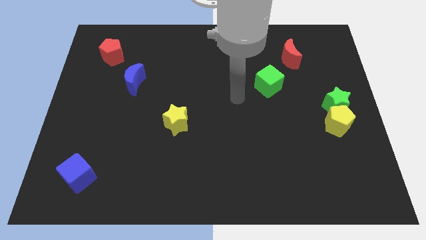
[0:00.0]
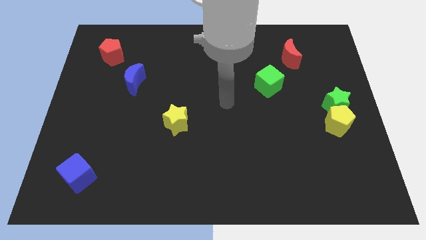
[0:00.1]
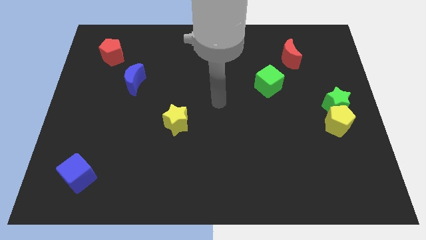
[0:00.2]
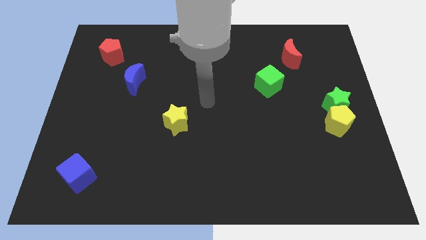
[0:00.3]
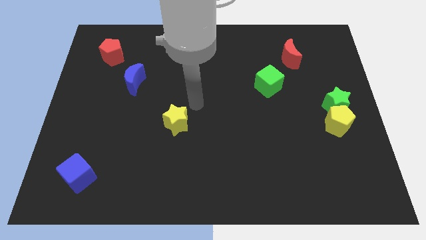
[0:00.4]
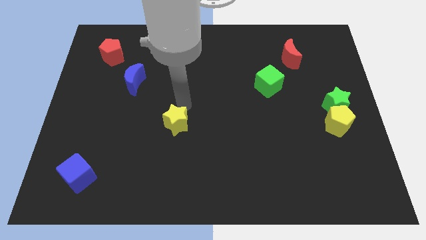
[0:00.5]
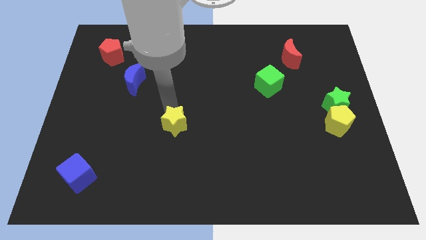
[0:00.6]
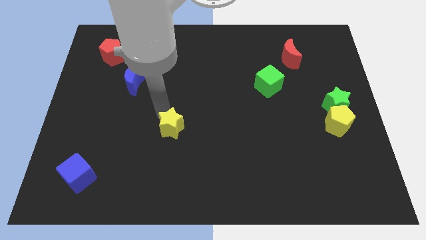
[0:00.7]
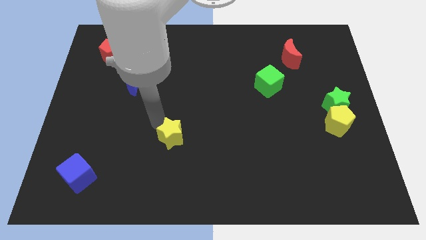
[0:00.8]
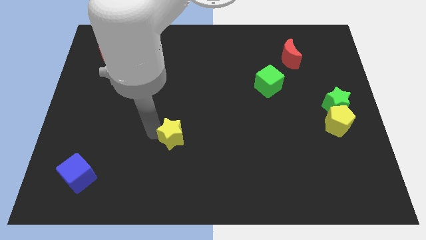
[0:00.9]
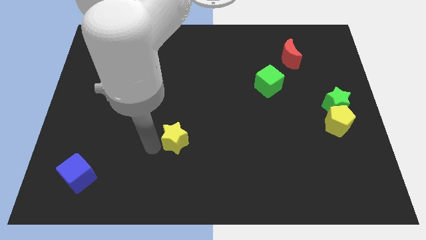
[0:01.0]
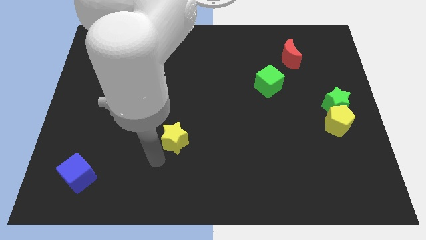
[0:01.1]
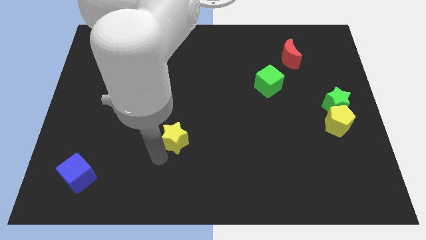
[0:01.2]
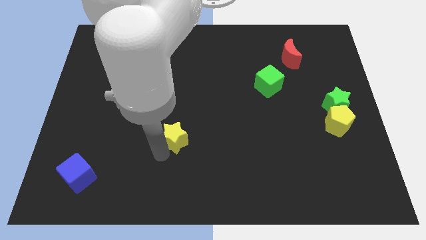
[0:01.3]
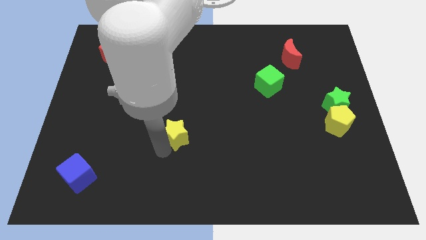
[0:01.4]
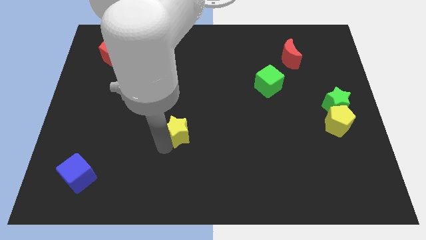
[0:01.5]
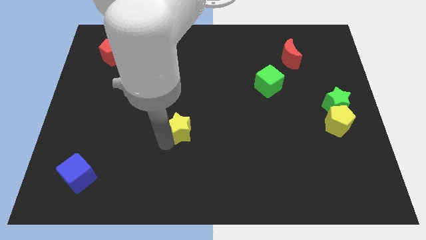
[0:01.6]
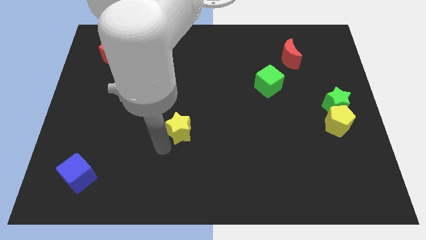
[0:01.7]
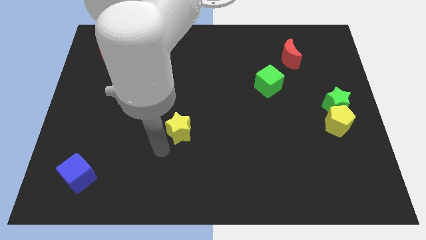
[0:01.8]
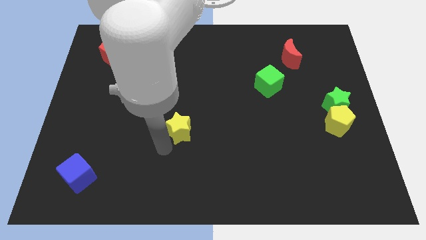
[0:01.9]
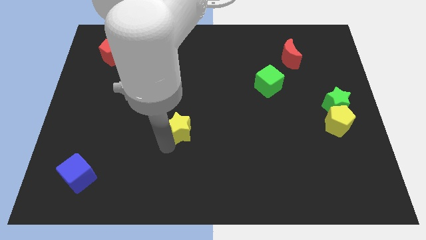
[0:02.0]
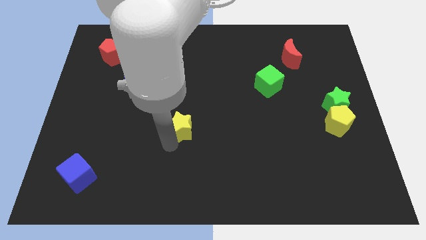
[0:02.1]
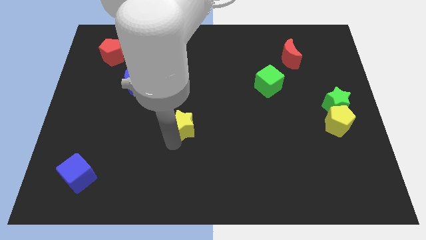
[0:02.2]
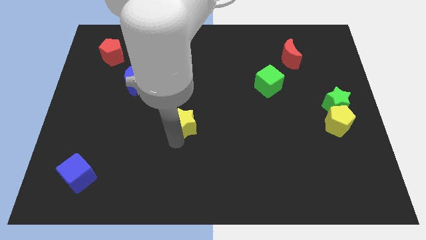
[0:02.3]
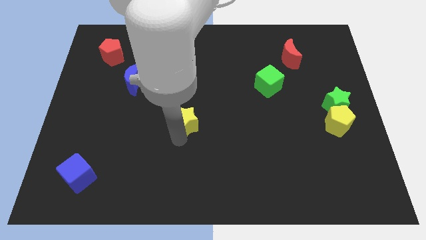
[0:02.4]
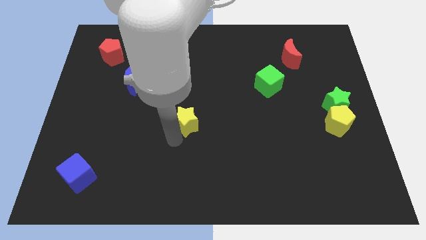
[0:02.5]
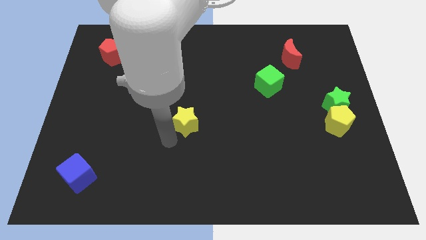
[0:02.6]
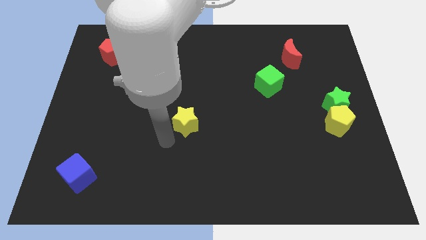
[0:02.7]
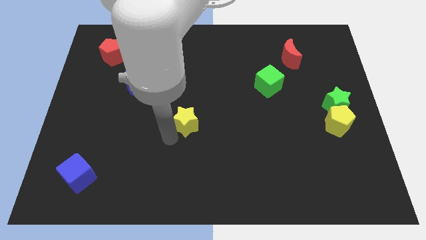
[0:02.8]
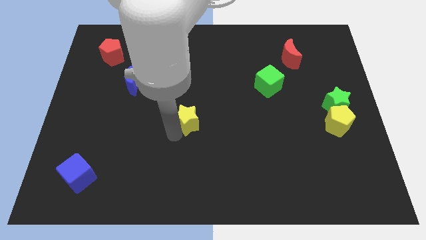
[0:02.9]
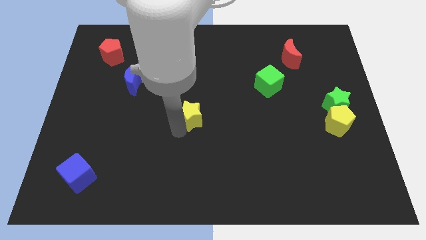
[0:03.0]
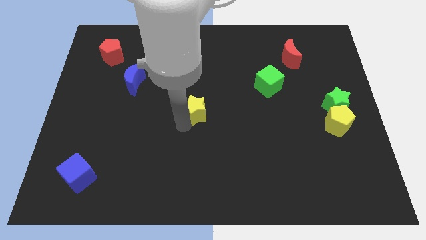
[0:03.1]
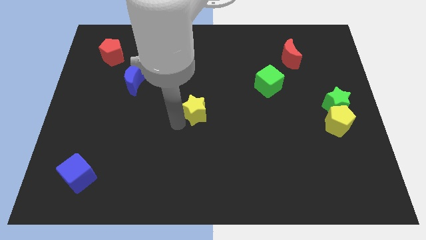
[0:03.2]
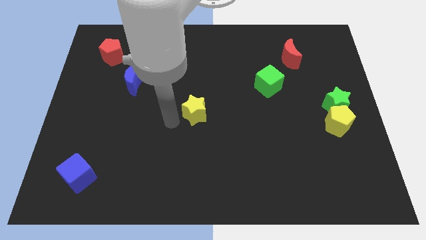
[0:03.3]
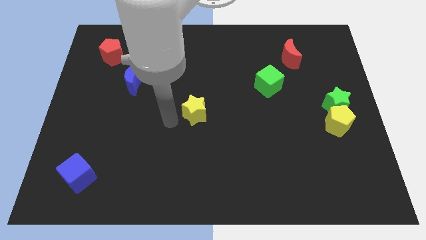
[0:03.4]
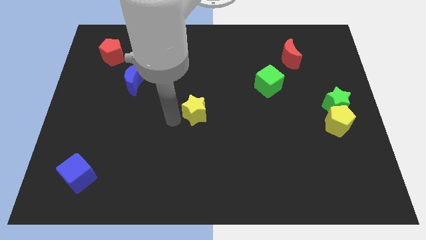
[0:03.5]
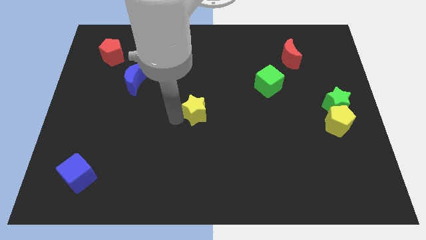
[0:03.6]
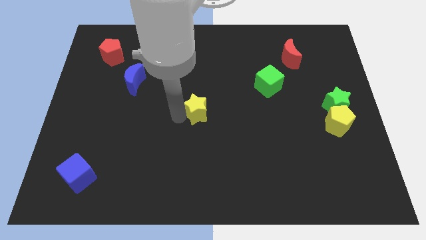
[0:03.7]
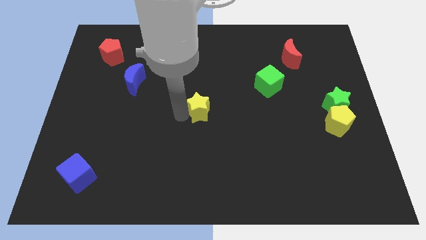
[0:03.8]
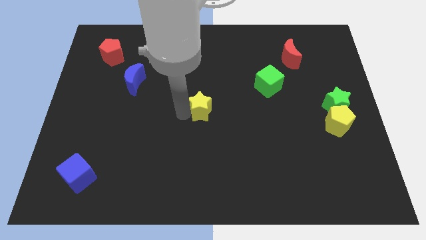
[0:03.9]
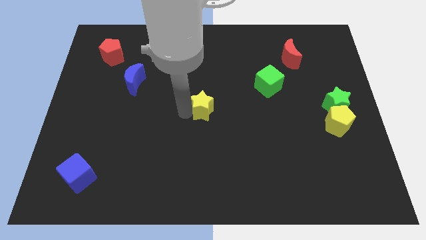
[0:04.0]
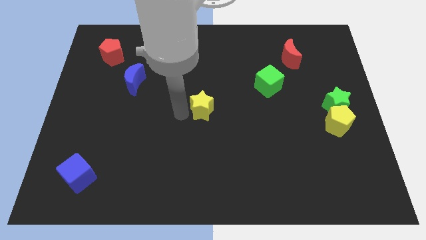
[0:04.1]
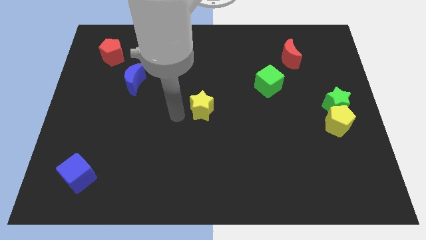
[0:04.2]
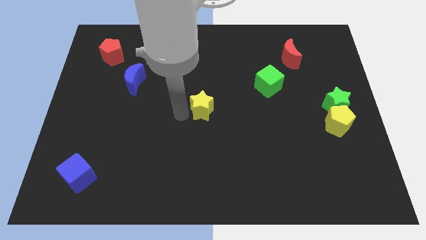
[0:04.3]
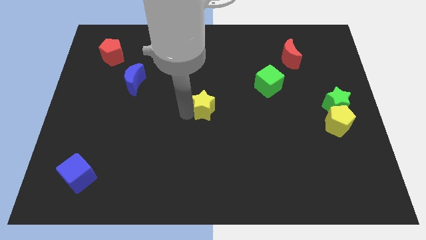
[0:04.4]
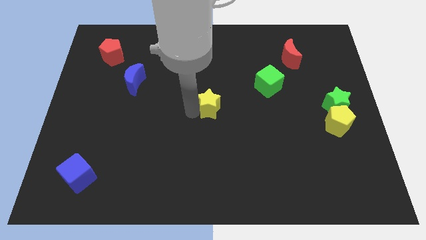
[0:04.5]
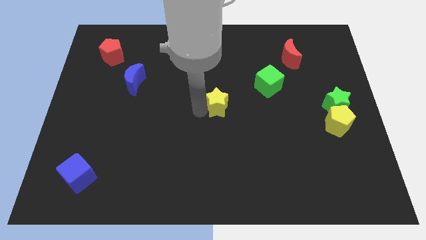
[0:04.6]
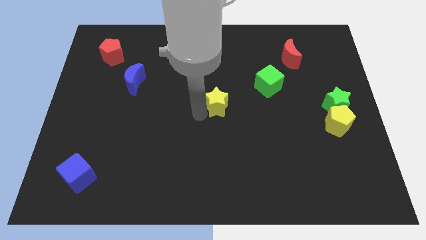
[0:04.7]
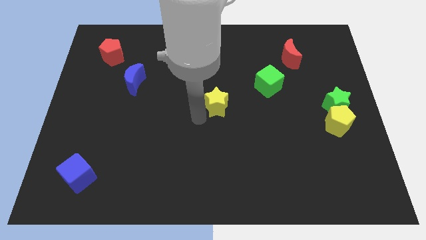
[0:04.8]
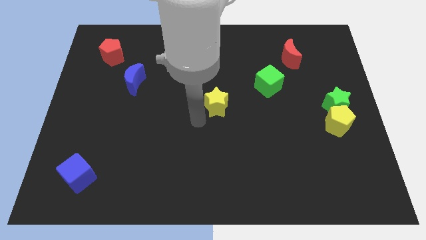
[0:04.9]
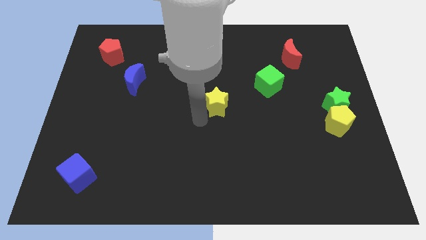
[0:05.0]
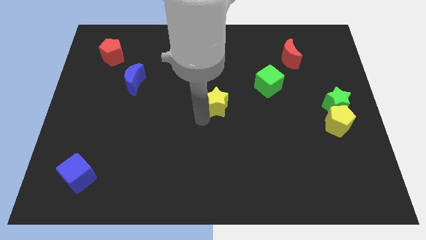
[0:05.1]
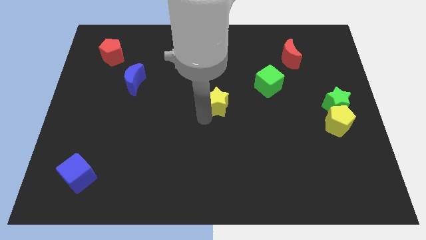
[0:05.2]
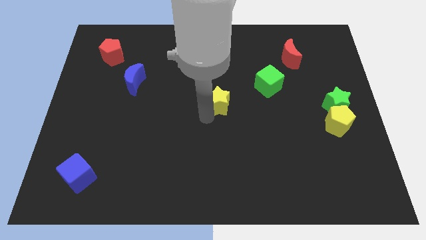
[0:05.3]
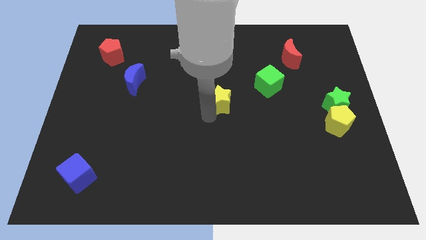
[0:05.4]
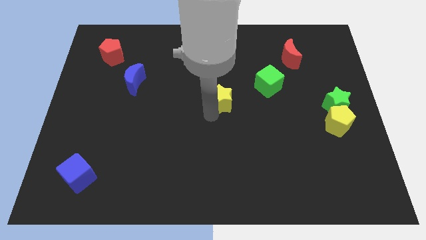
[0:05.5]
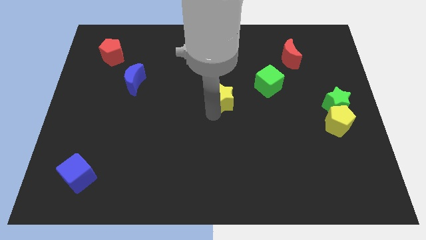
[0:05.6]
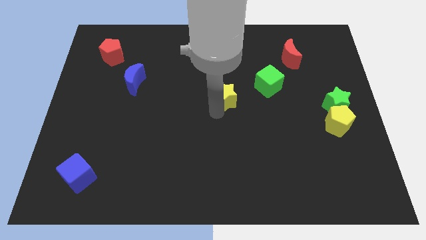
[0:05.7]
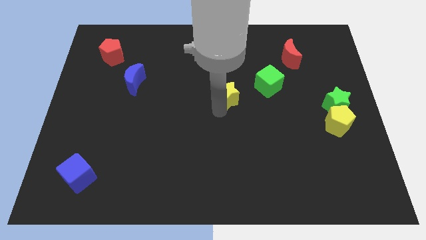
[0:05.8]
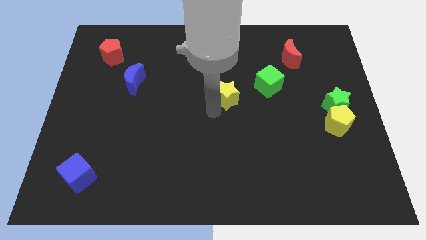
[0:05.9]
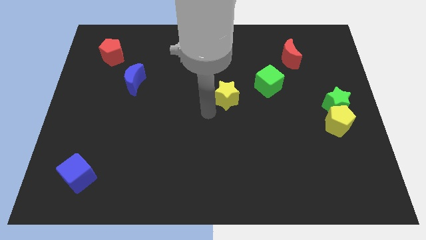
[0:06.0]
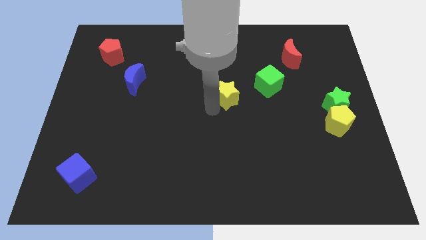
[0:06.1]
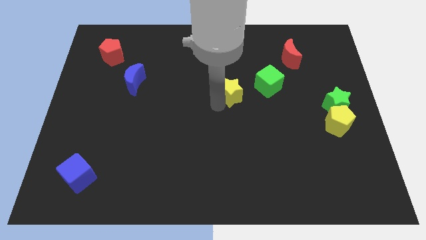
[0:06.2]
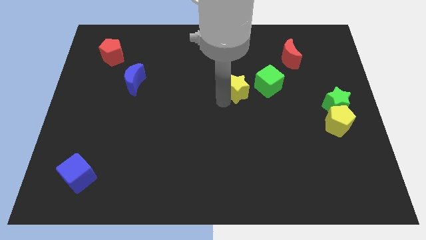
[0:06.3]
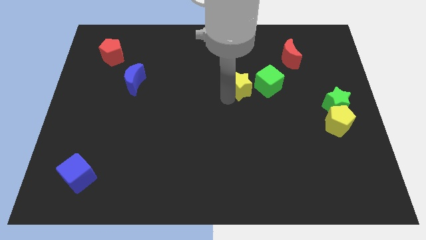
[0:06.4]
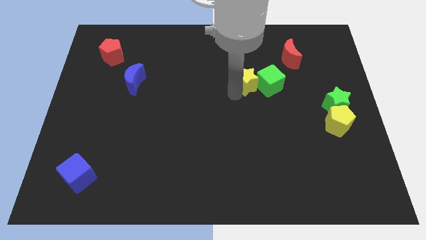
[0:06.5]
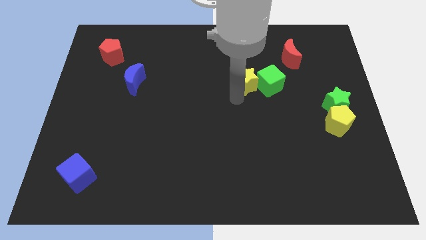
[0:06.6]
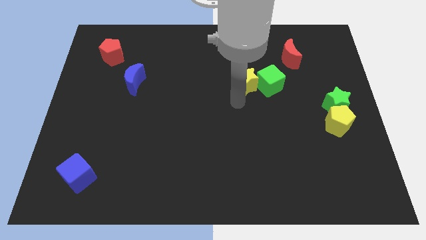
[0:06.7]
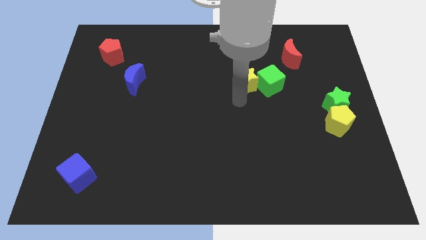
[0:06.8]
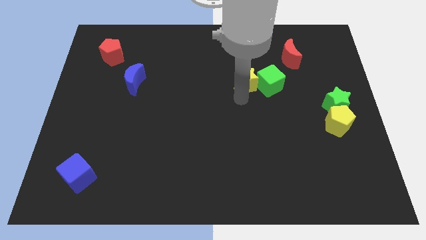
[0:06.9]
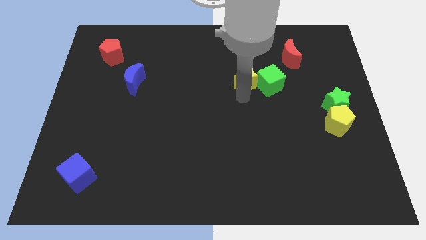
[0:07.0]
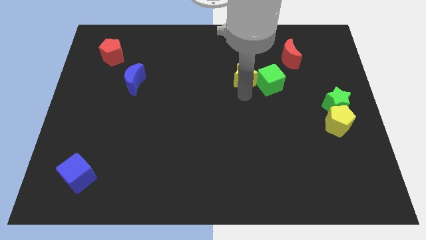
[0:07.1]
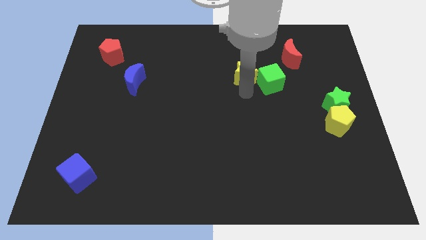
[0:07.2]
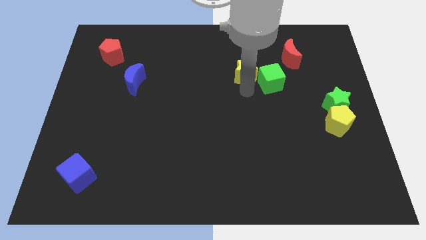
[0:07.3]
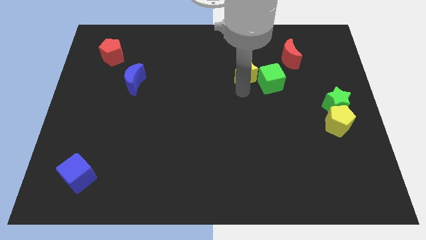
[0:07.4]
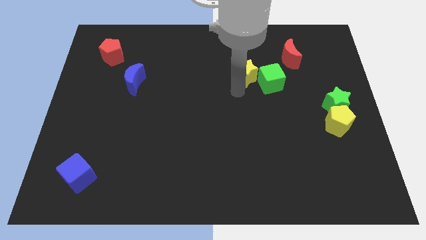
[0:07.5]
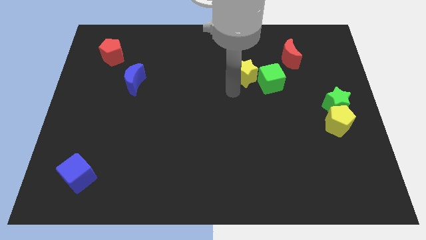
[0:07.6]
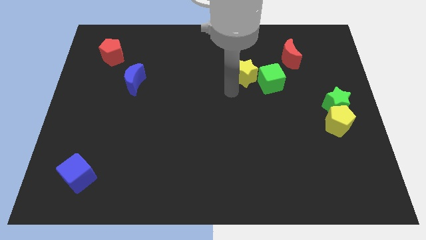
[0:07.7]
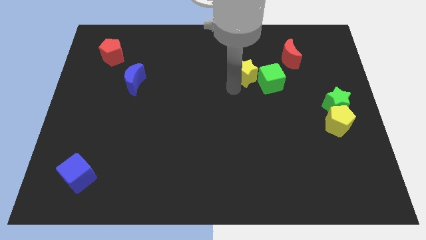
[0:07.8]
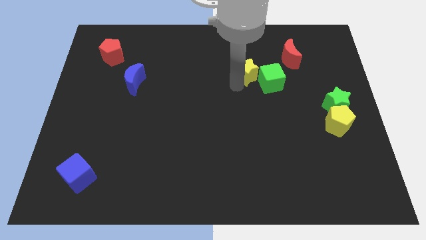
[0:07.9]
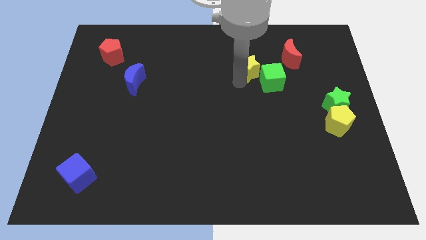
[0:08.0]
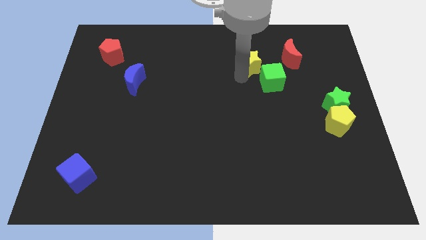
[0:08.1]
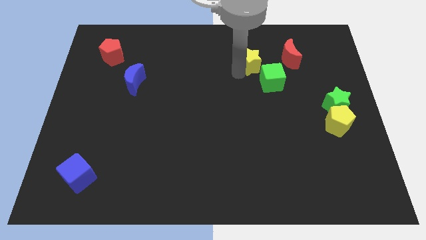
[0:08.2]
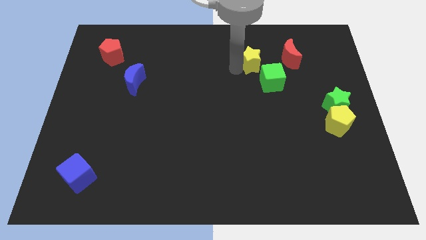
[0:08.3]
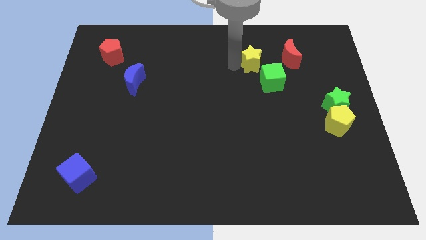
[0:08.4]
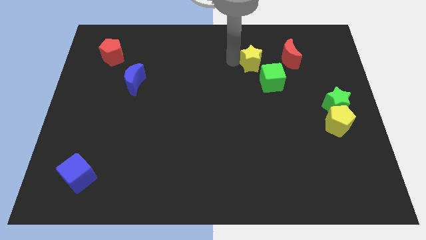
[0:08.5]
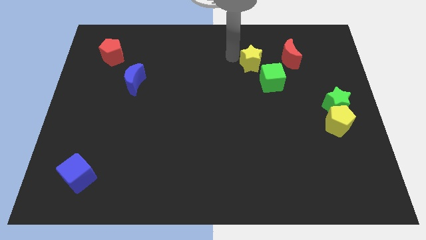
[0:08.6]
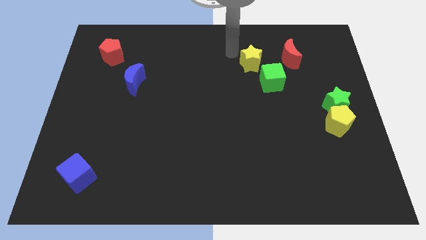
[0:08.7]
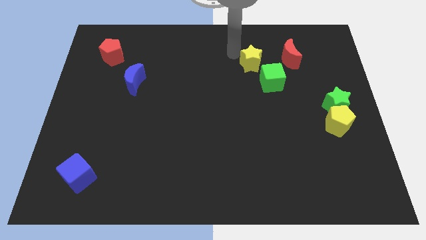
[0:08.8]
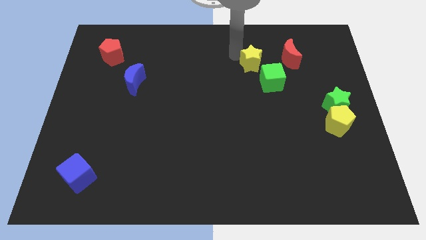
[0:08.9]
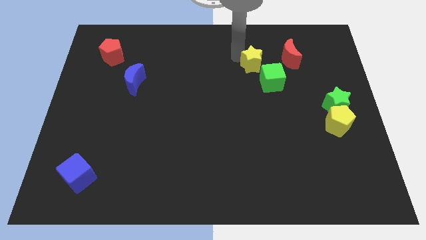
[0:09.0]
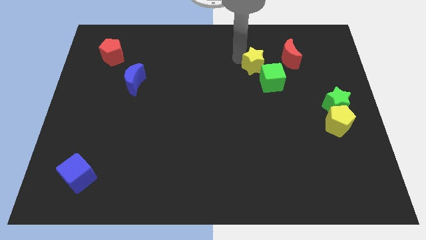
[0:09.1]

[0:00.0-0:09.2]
put the yellow star diagonally down and to the left of the red moon
